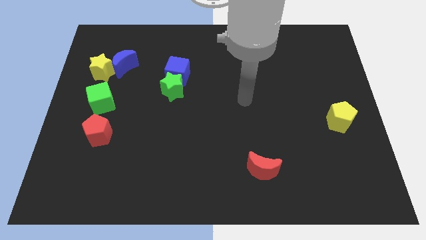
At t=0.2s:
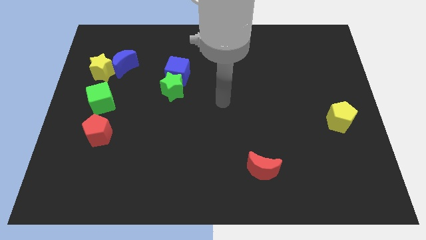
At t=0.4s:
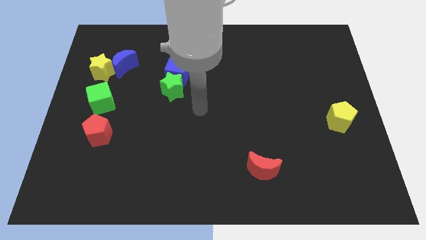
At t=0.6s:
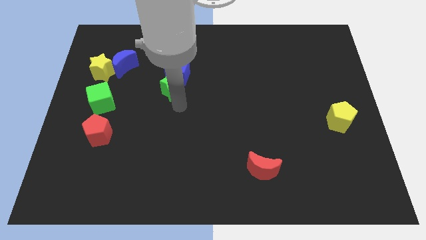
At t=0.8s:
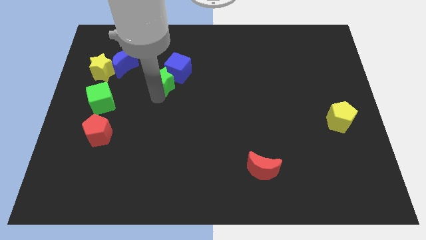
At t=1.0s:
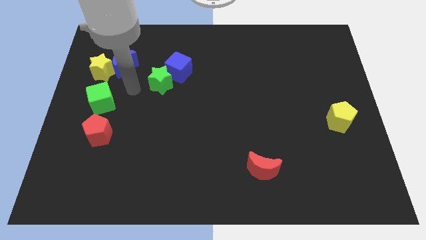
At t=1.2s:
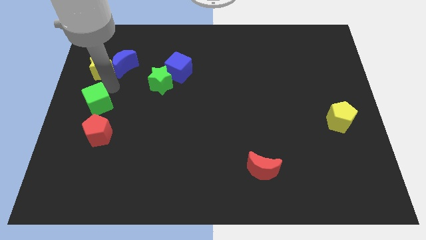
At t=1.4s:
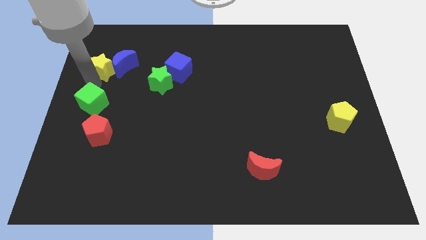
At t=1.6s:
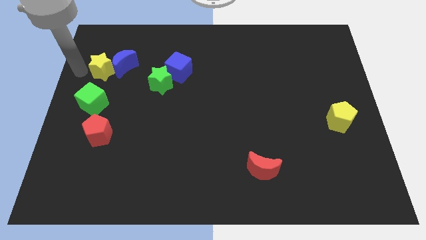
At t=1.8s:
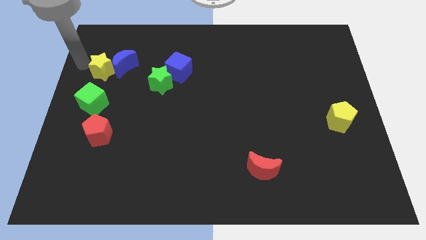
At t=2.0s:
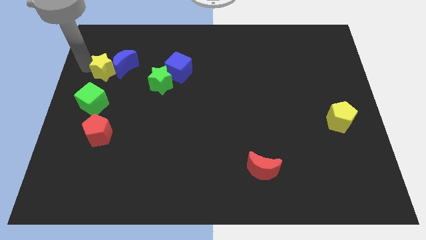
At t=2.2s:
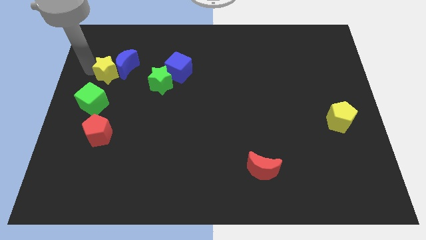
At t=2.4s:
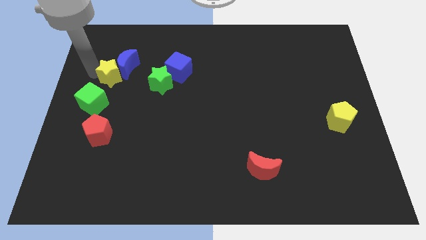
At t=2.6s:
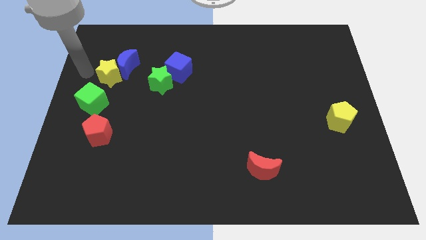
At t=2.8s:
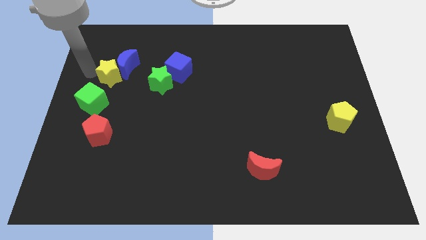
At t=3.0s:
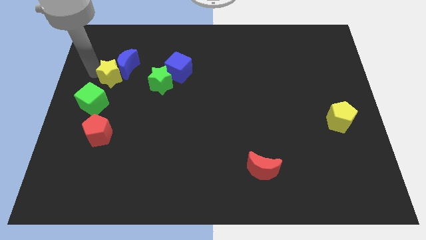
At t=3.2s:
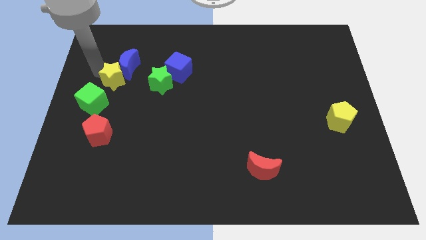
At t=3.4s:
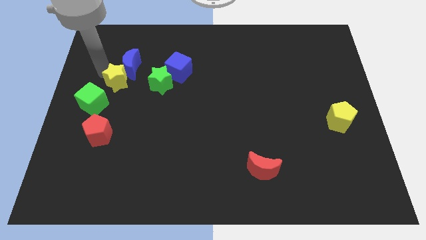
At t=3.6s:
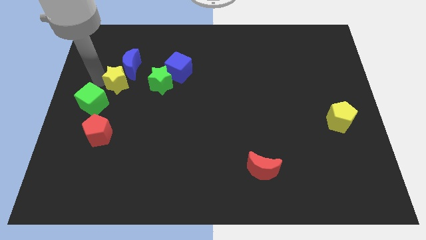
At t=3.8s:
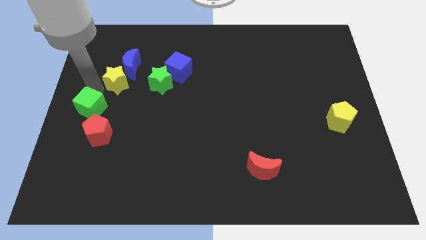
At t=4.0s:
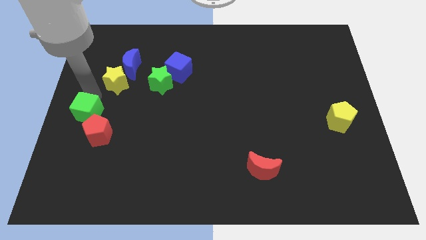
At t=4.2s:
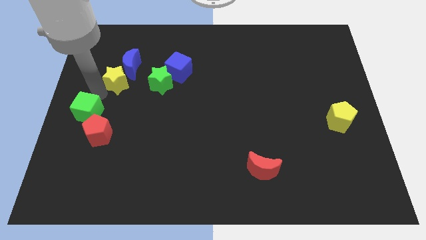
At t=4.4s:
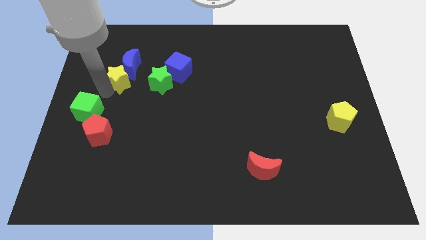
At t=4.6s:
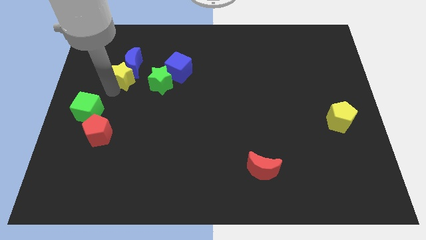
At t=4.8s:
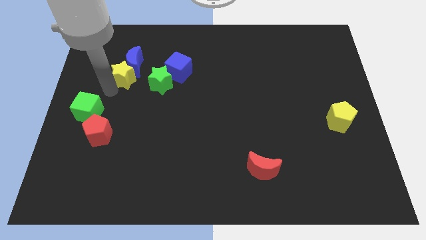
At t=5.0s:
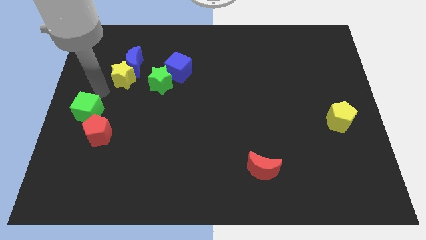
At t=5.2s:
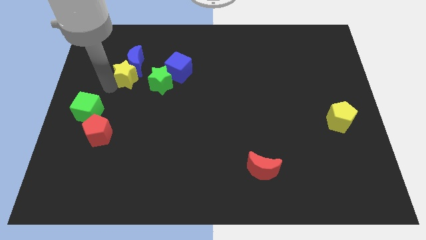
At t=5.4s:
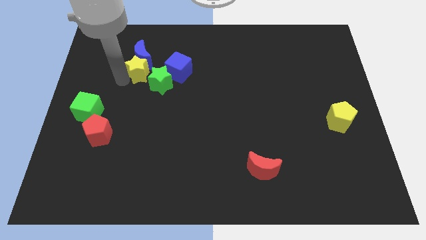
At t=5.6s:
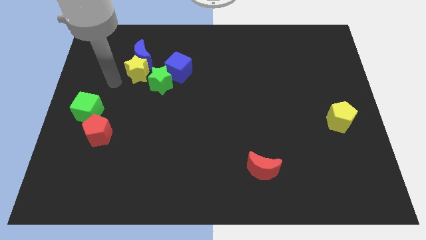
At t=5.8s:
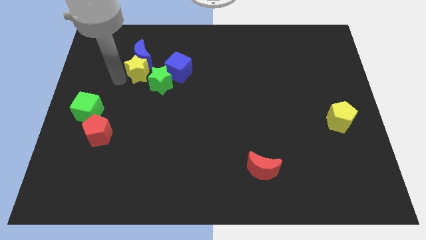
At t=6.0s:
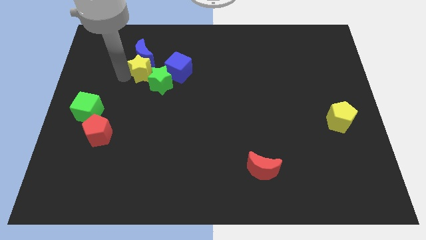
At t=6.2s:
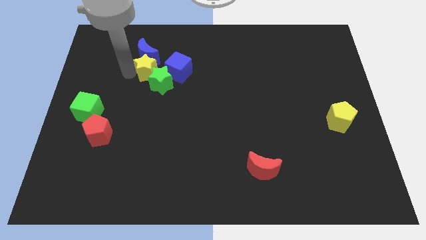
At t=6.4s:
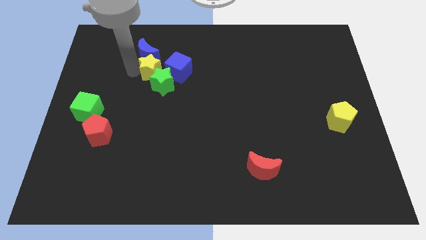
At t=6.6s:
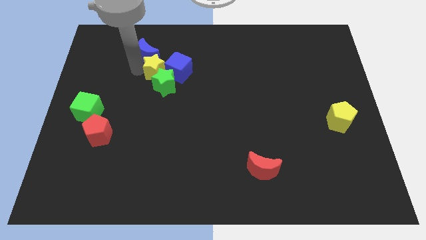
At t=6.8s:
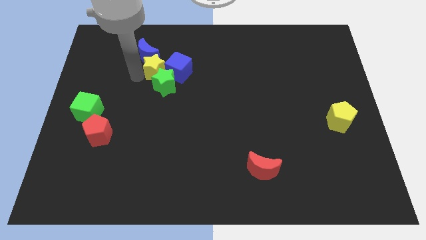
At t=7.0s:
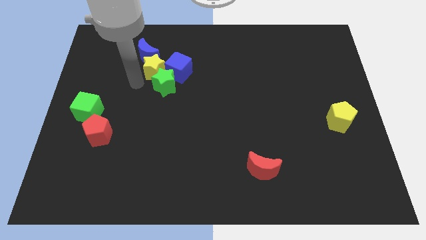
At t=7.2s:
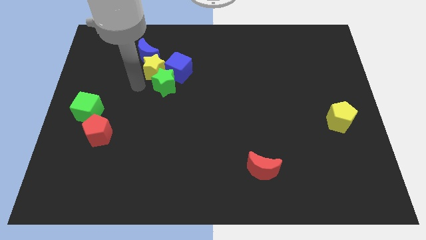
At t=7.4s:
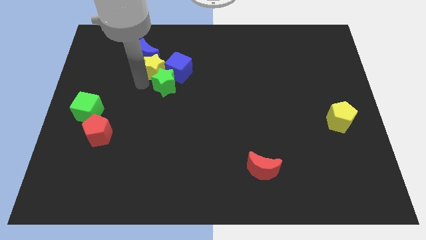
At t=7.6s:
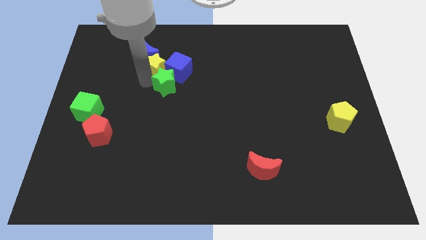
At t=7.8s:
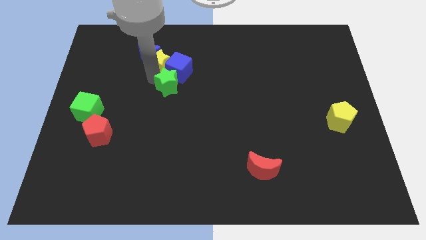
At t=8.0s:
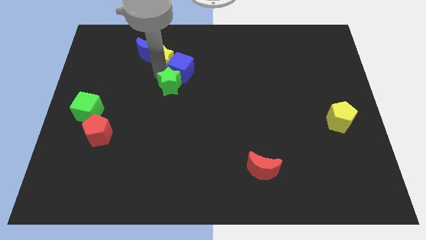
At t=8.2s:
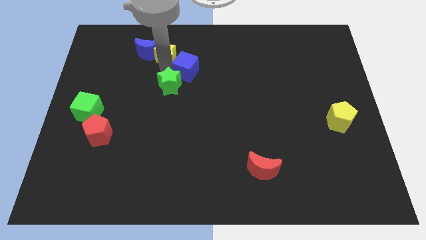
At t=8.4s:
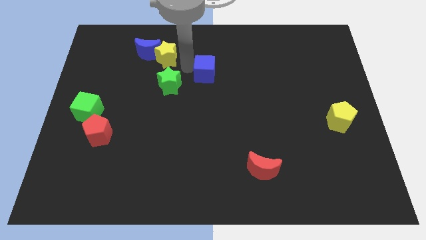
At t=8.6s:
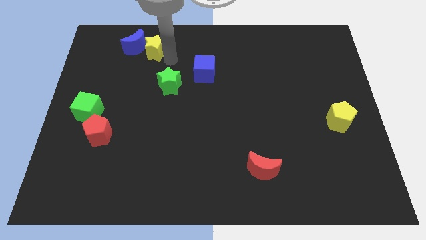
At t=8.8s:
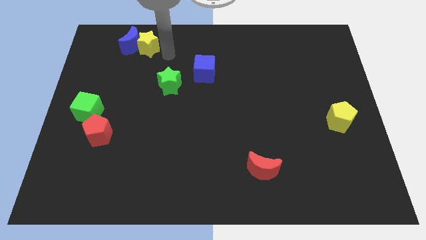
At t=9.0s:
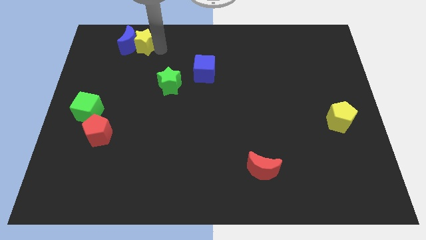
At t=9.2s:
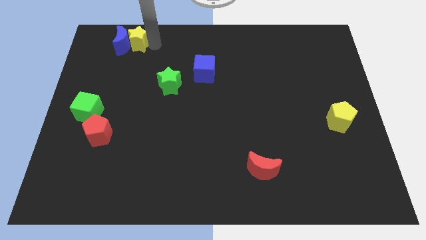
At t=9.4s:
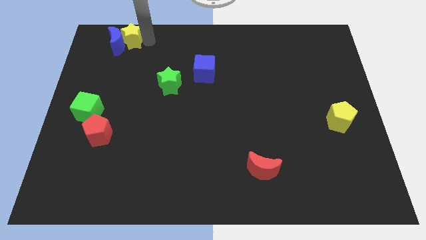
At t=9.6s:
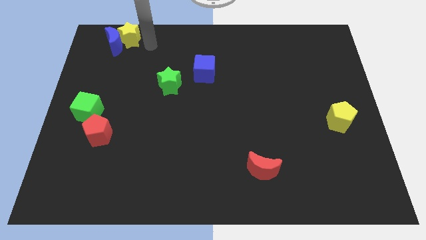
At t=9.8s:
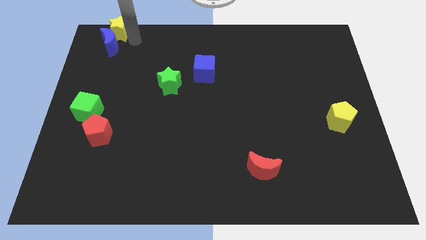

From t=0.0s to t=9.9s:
move the yellow star to the upper left corner

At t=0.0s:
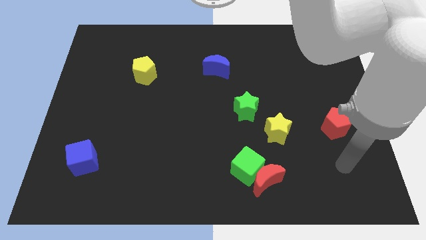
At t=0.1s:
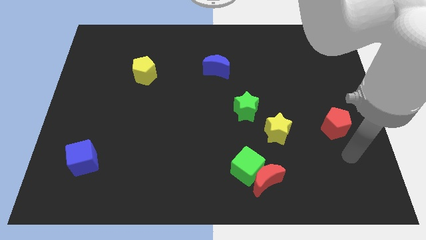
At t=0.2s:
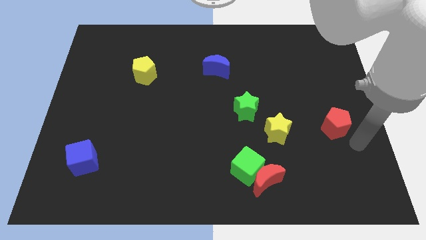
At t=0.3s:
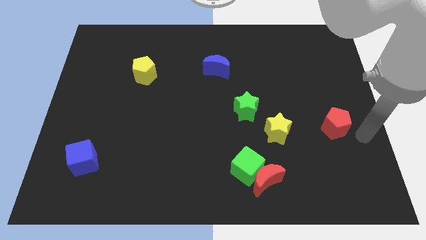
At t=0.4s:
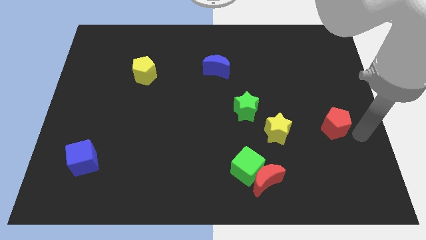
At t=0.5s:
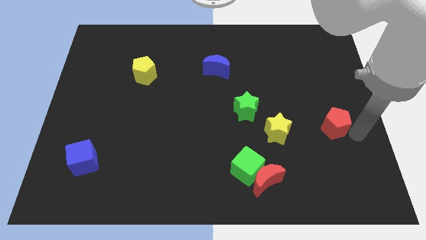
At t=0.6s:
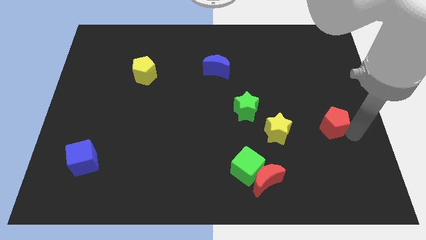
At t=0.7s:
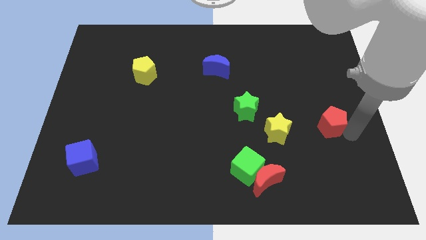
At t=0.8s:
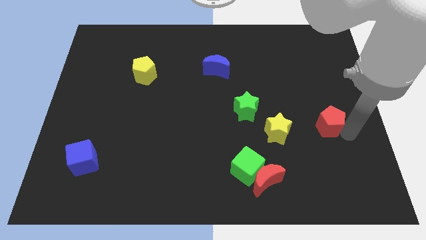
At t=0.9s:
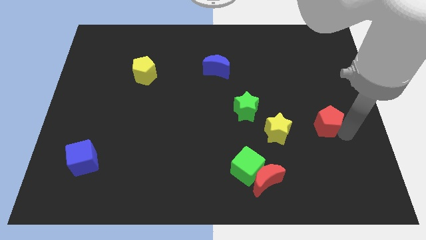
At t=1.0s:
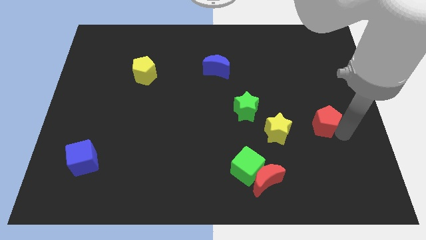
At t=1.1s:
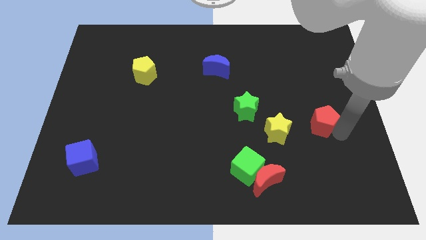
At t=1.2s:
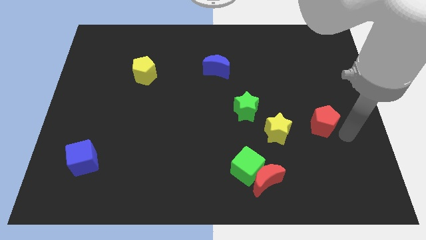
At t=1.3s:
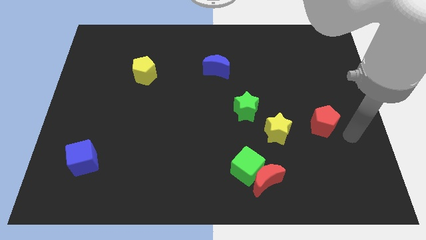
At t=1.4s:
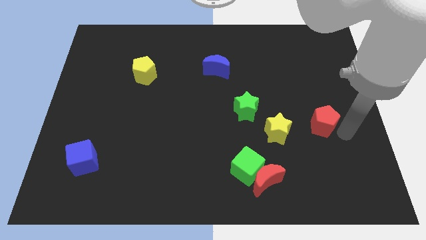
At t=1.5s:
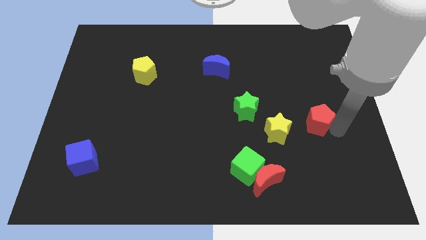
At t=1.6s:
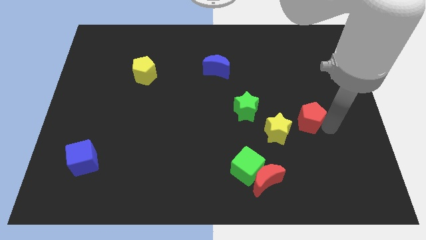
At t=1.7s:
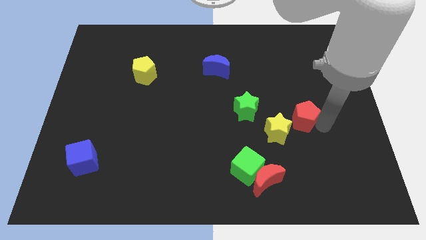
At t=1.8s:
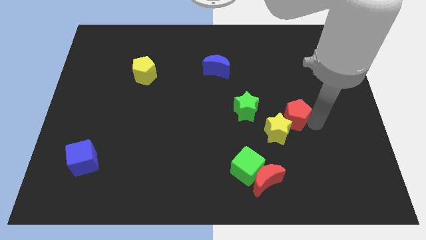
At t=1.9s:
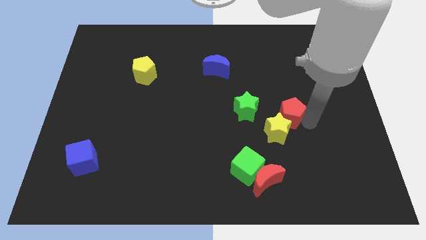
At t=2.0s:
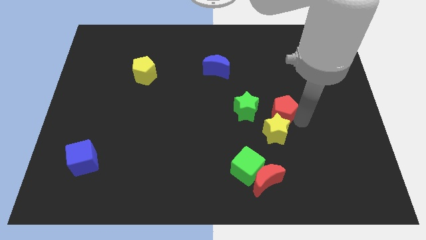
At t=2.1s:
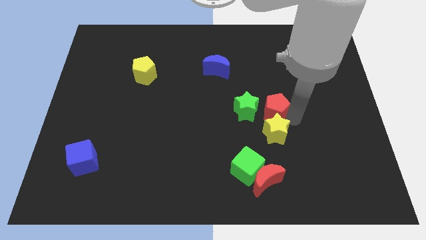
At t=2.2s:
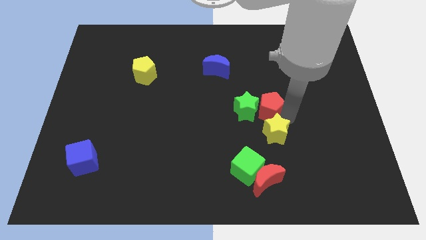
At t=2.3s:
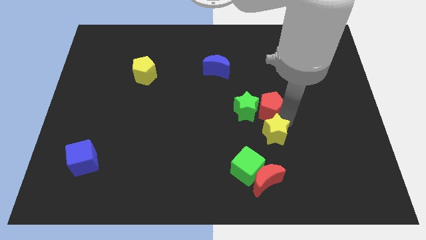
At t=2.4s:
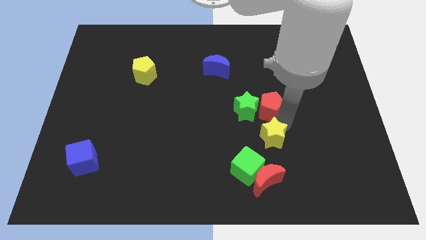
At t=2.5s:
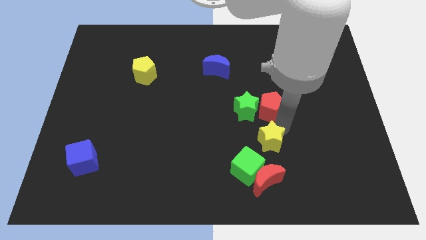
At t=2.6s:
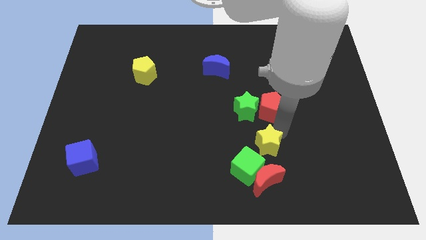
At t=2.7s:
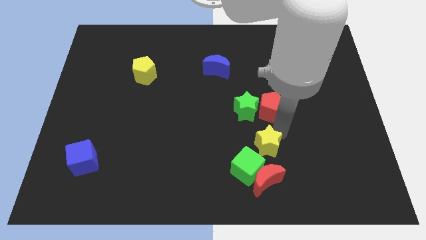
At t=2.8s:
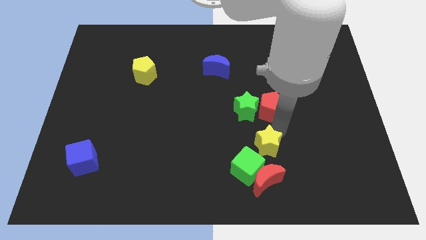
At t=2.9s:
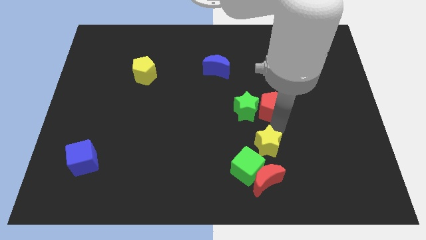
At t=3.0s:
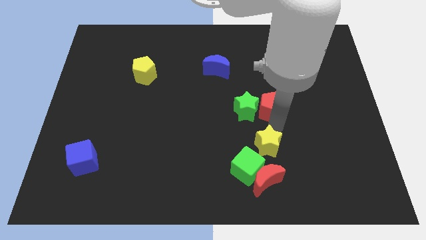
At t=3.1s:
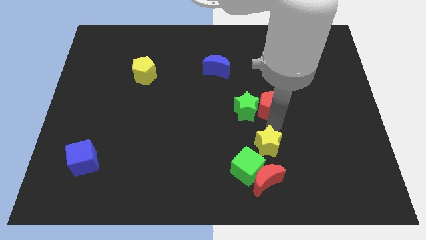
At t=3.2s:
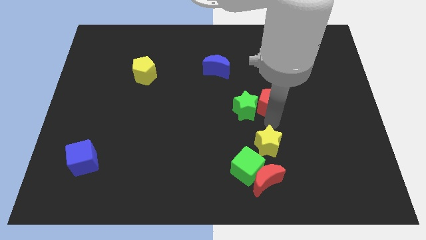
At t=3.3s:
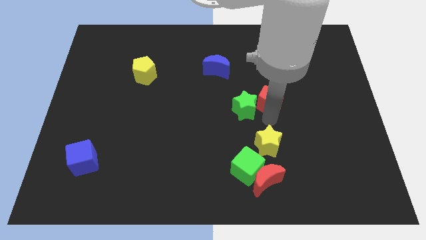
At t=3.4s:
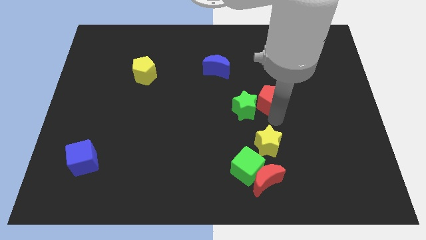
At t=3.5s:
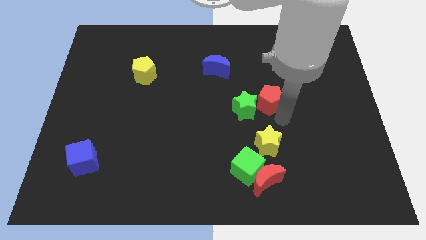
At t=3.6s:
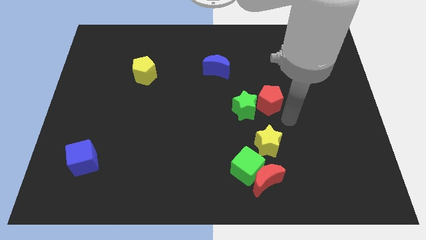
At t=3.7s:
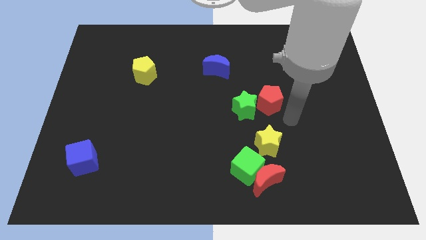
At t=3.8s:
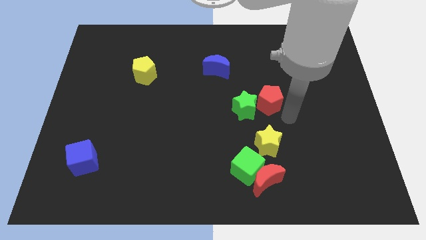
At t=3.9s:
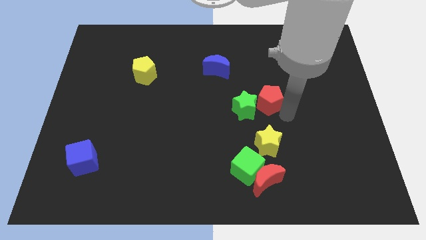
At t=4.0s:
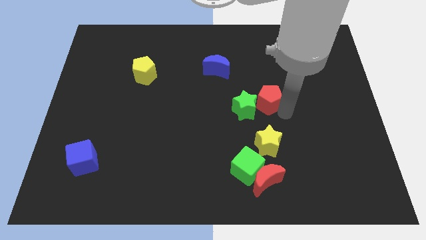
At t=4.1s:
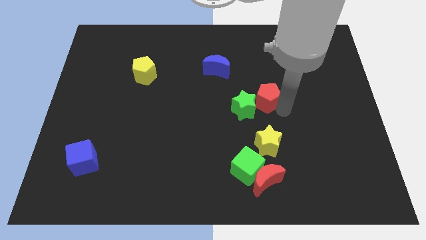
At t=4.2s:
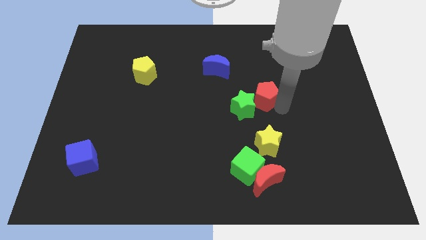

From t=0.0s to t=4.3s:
move the red pentagon to the center of the board
